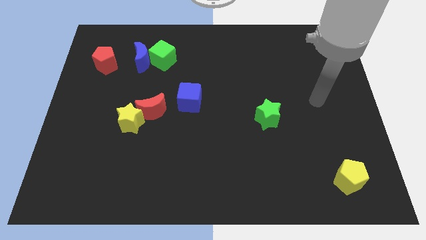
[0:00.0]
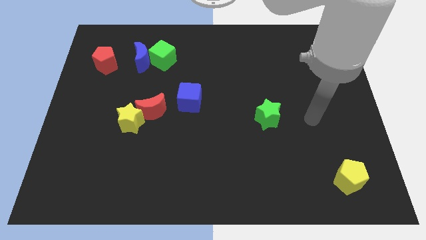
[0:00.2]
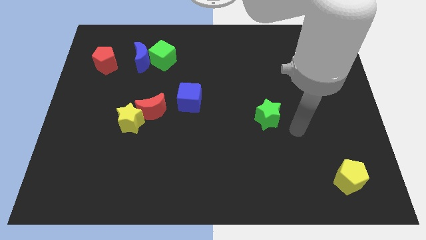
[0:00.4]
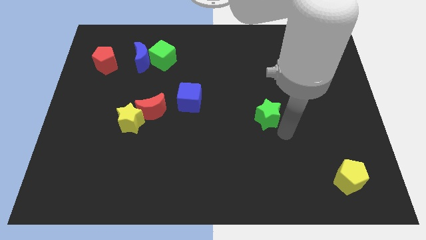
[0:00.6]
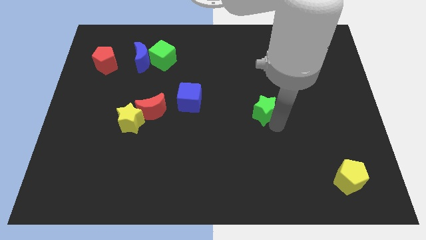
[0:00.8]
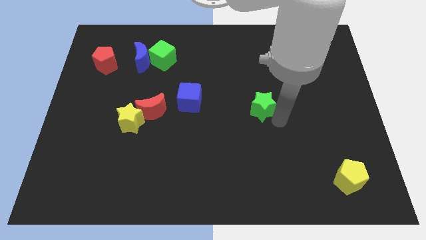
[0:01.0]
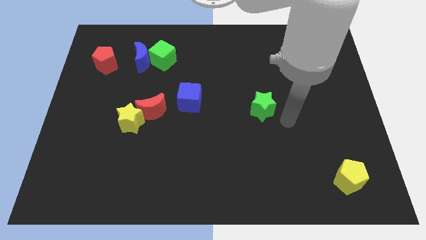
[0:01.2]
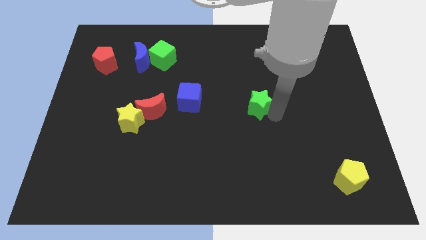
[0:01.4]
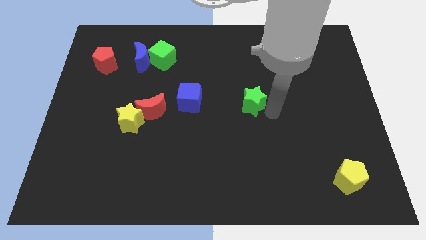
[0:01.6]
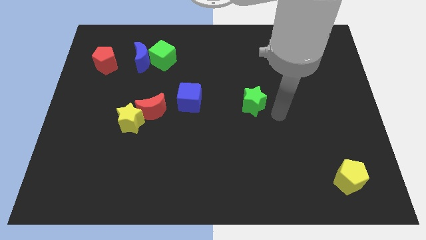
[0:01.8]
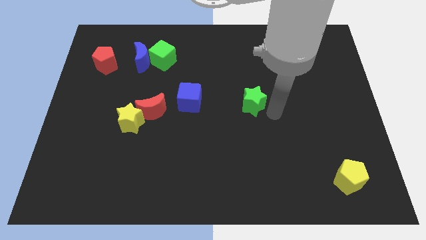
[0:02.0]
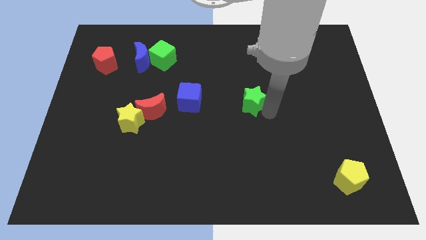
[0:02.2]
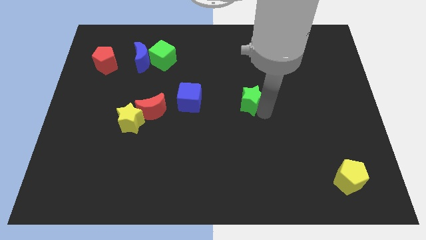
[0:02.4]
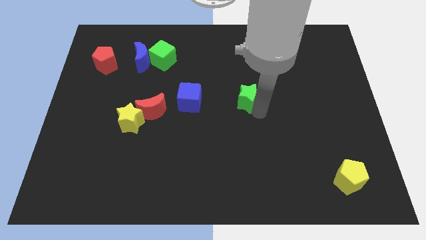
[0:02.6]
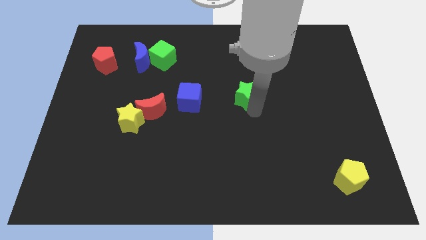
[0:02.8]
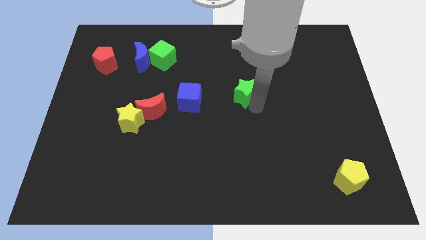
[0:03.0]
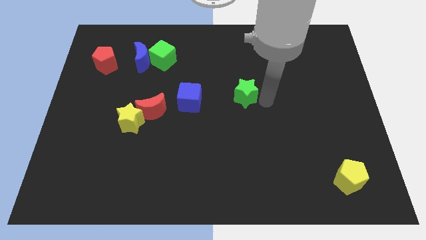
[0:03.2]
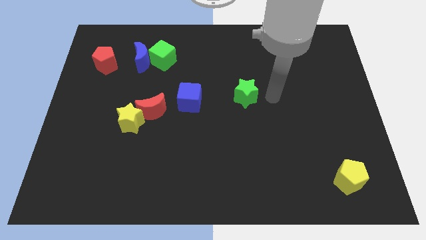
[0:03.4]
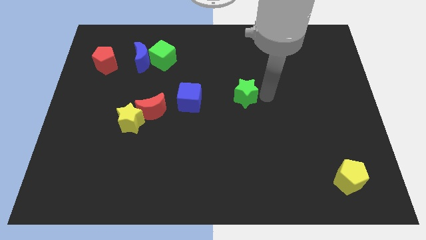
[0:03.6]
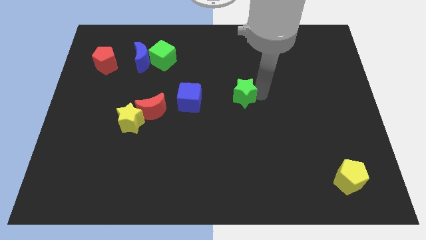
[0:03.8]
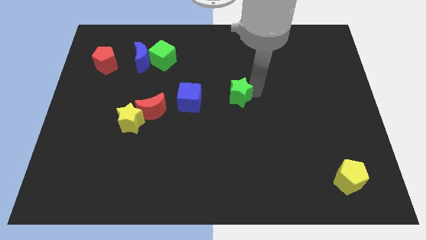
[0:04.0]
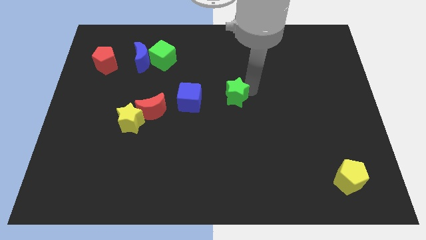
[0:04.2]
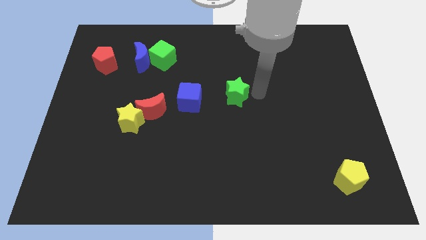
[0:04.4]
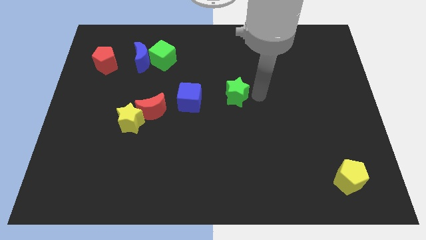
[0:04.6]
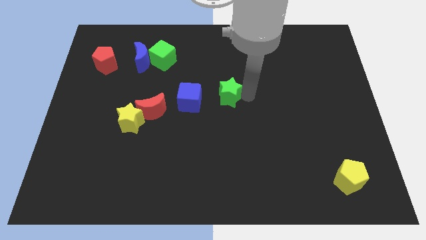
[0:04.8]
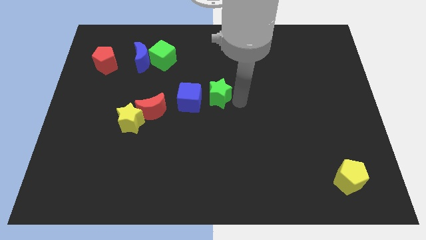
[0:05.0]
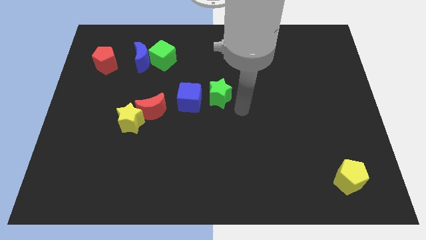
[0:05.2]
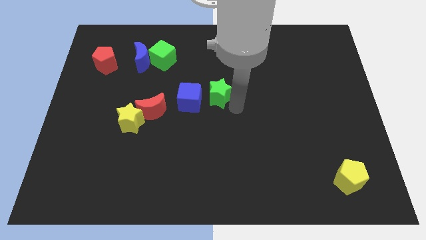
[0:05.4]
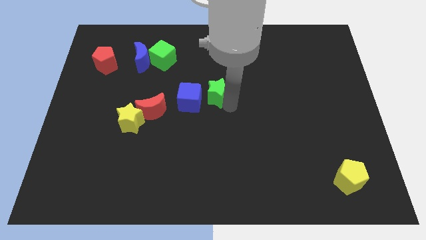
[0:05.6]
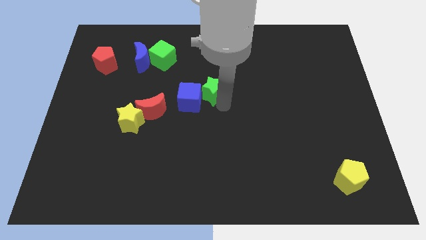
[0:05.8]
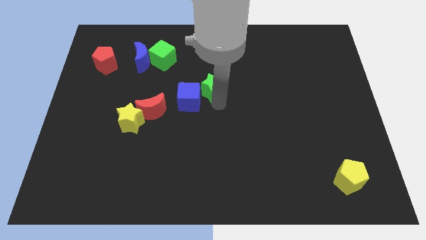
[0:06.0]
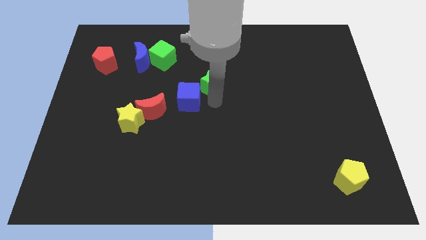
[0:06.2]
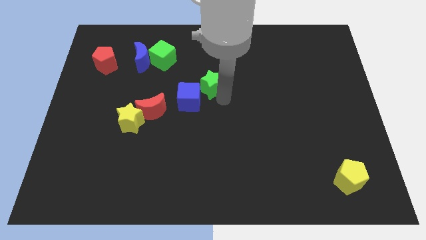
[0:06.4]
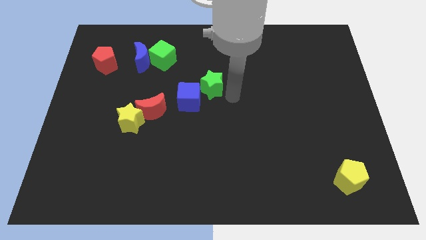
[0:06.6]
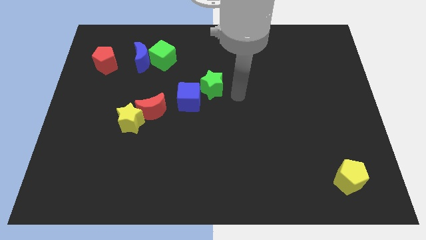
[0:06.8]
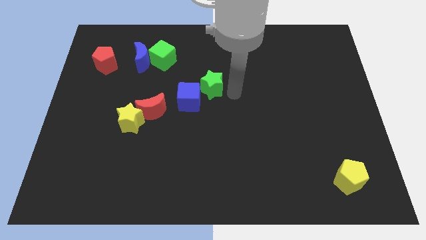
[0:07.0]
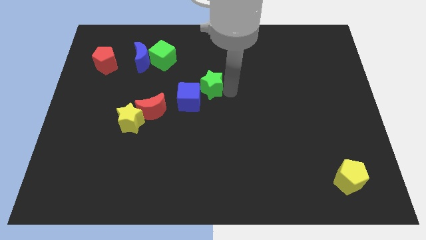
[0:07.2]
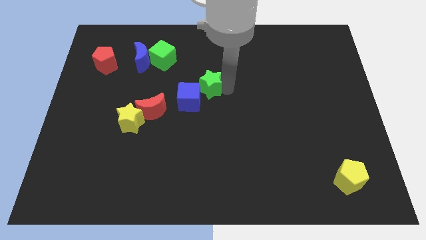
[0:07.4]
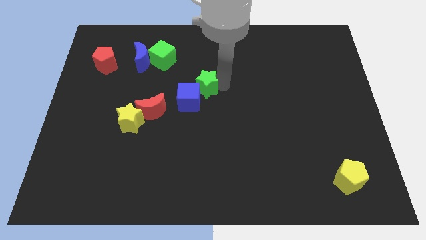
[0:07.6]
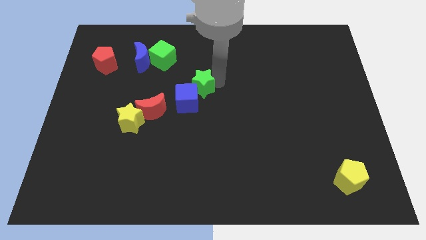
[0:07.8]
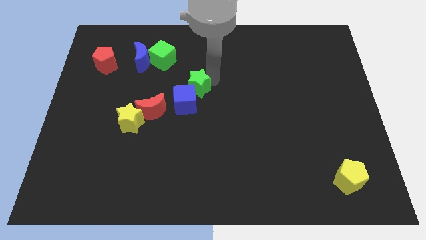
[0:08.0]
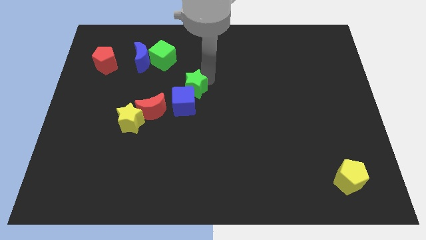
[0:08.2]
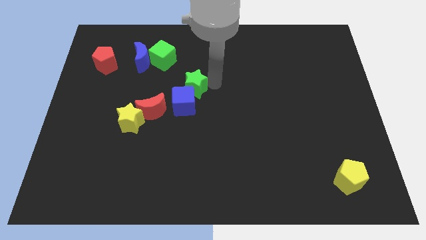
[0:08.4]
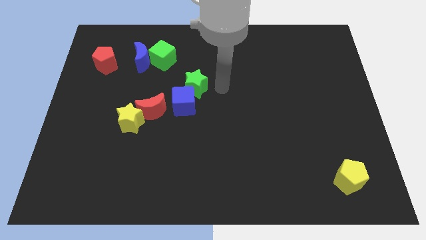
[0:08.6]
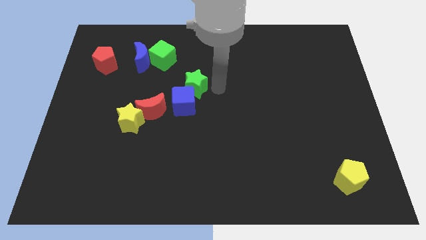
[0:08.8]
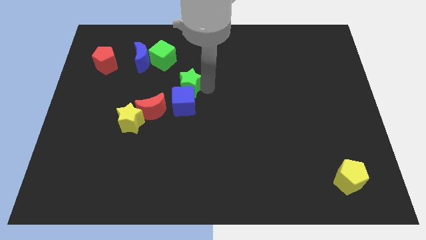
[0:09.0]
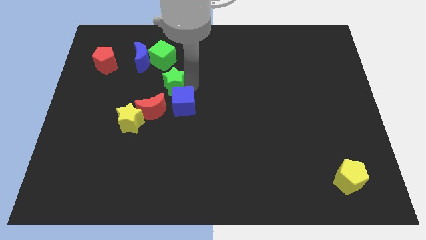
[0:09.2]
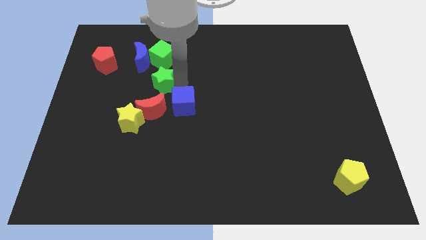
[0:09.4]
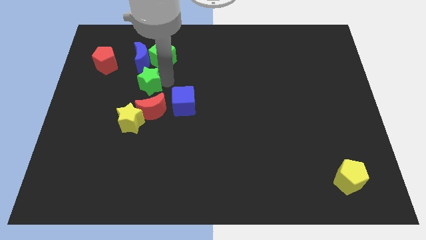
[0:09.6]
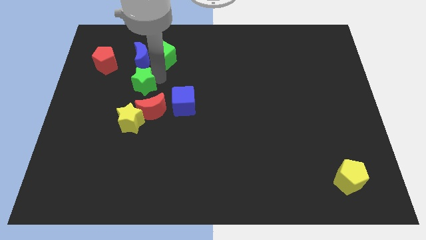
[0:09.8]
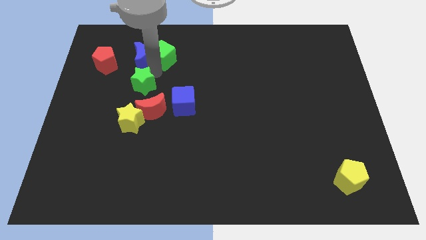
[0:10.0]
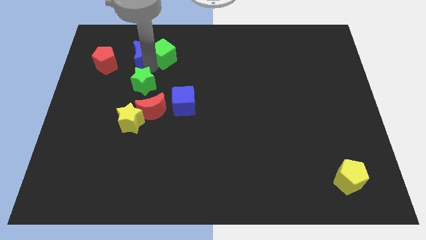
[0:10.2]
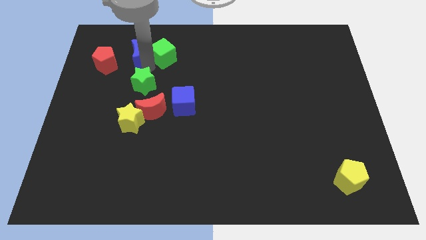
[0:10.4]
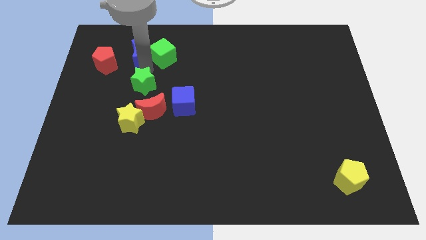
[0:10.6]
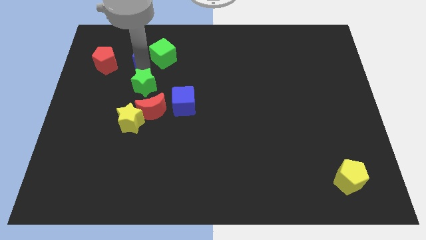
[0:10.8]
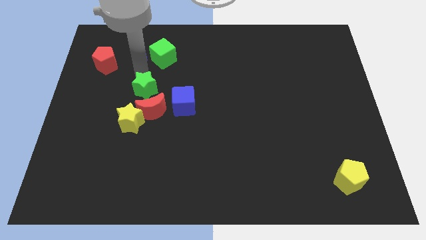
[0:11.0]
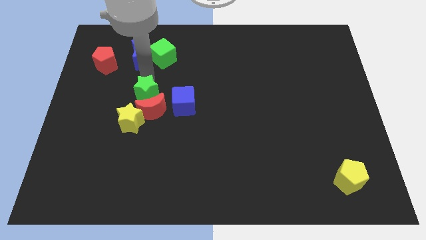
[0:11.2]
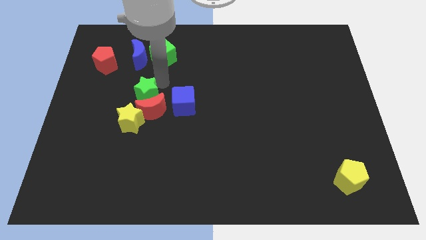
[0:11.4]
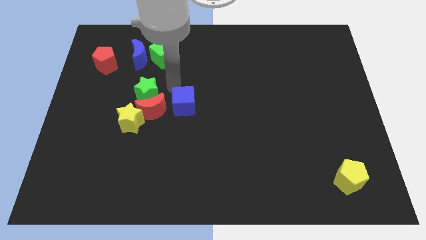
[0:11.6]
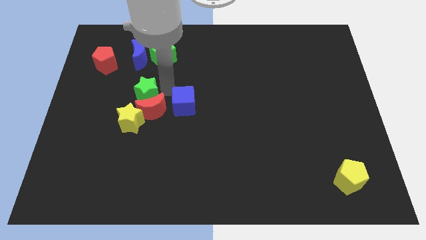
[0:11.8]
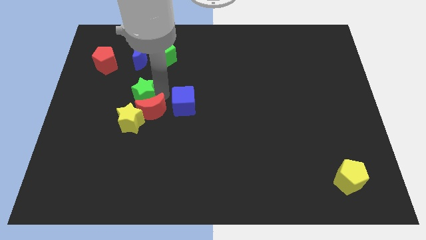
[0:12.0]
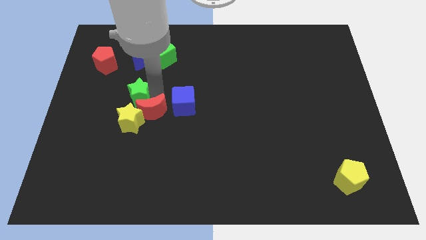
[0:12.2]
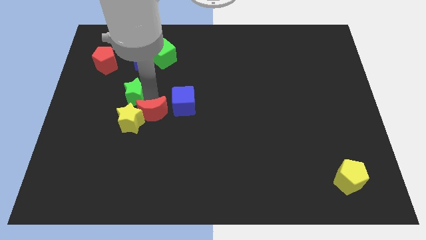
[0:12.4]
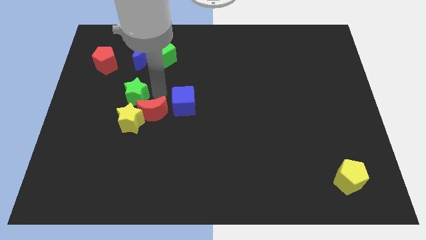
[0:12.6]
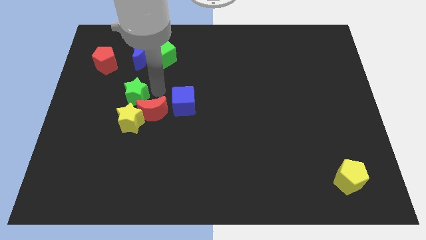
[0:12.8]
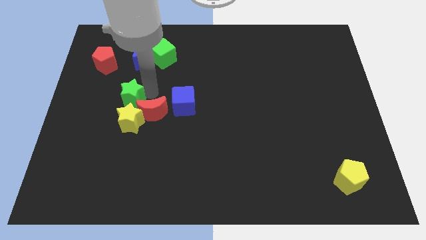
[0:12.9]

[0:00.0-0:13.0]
slide the green star diagonally up and to the left of the yellow star
